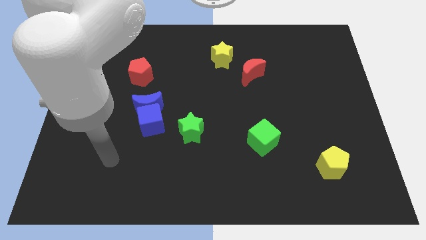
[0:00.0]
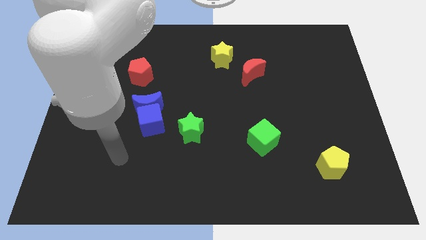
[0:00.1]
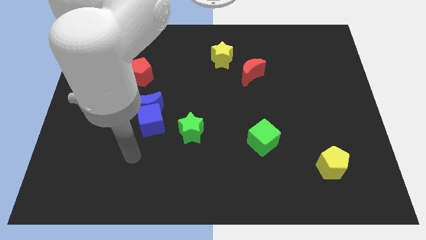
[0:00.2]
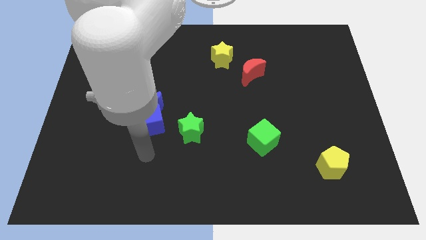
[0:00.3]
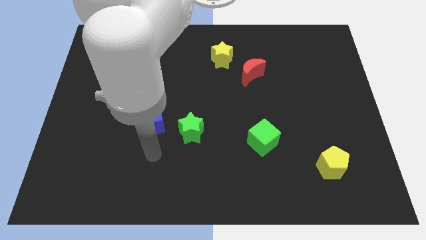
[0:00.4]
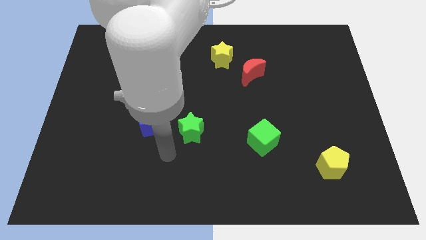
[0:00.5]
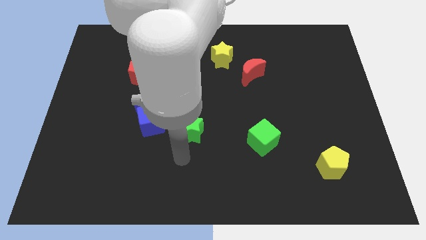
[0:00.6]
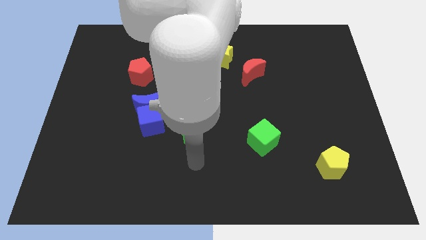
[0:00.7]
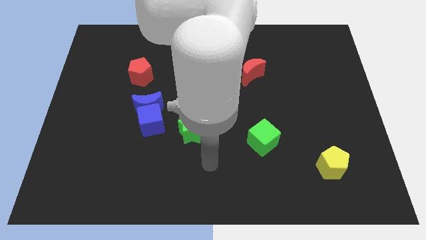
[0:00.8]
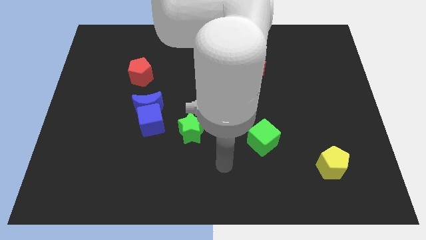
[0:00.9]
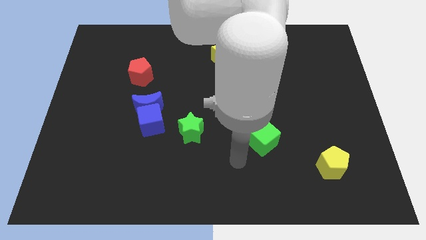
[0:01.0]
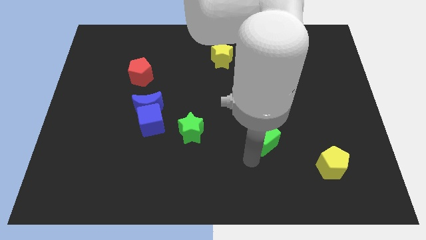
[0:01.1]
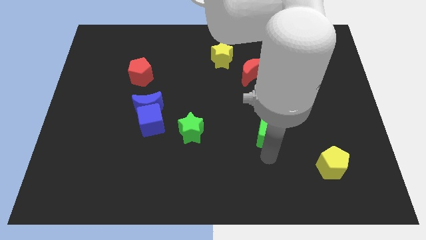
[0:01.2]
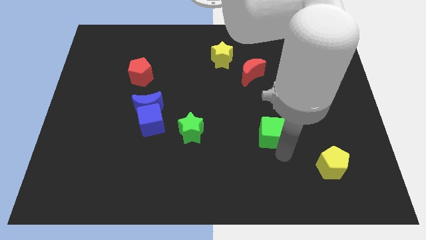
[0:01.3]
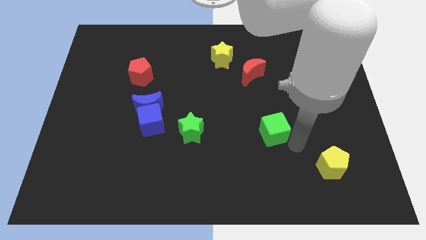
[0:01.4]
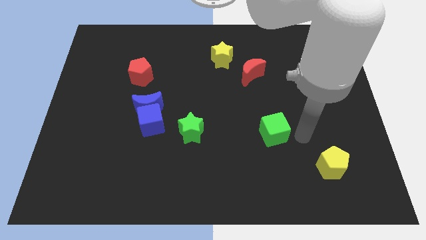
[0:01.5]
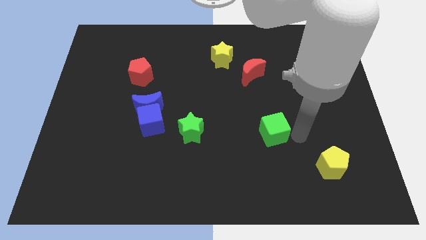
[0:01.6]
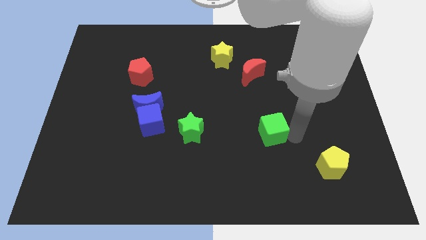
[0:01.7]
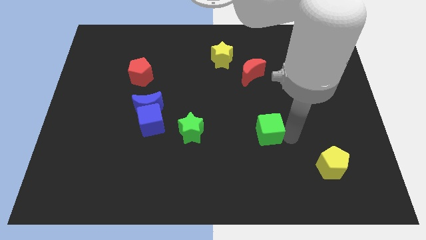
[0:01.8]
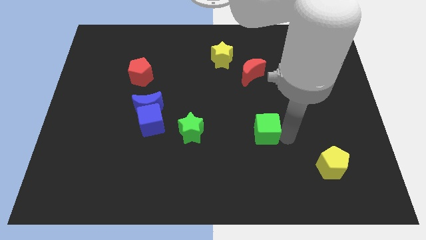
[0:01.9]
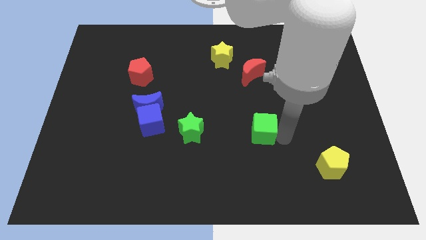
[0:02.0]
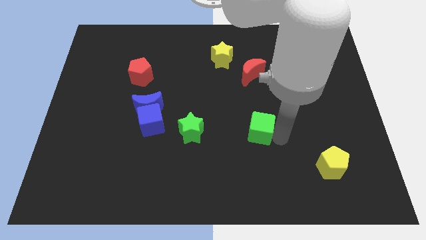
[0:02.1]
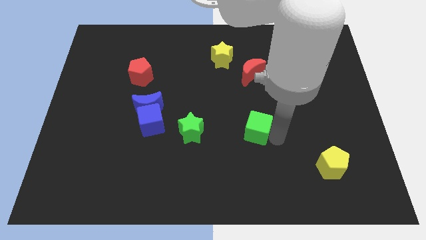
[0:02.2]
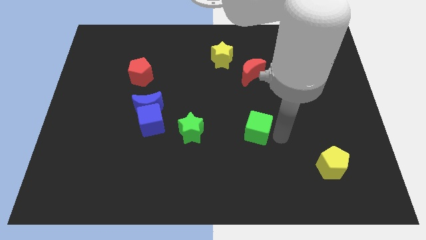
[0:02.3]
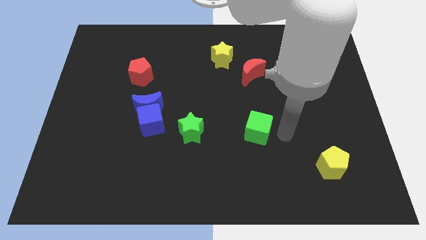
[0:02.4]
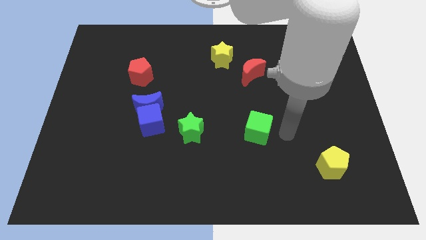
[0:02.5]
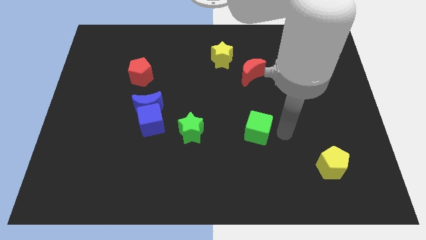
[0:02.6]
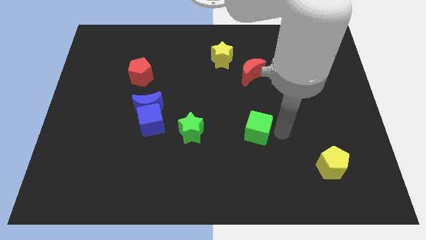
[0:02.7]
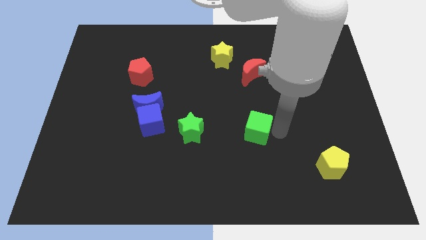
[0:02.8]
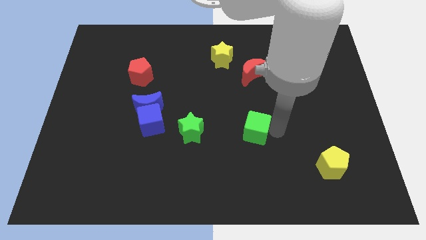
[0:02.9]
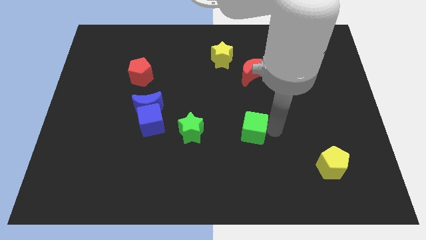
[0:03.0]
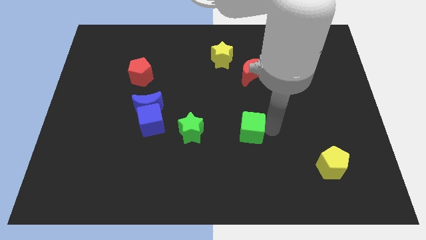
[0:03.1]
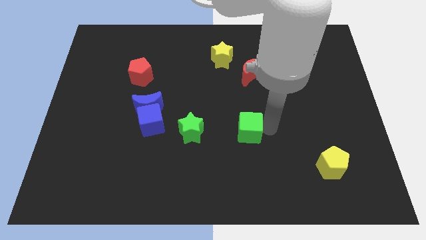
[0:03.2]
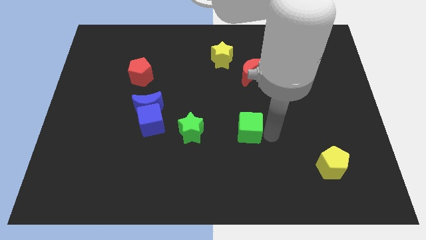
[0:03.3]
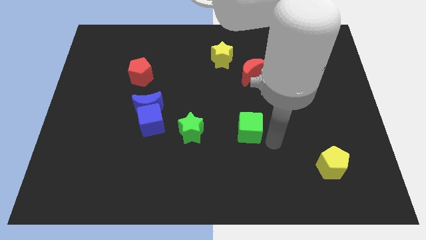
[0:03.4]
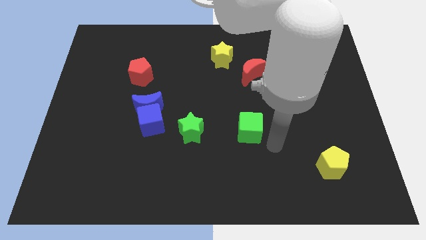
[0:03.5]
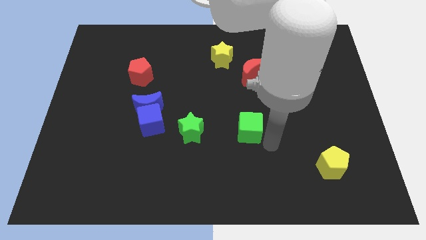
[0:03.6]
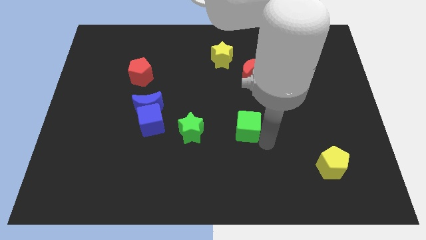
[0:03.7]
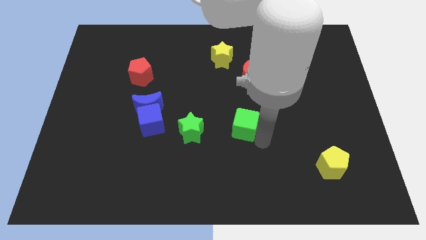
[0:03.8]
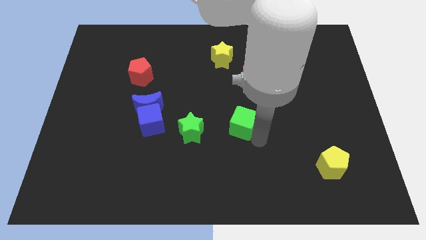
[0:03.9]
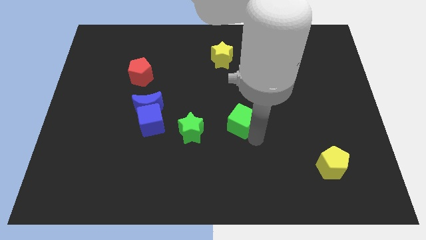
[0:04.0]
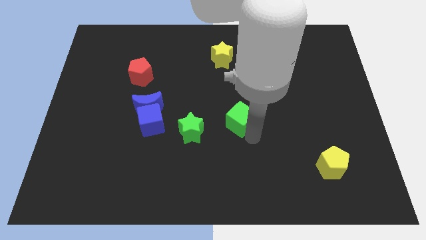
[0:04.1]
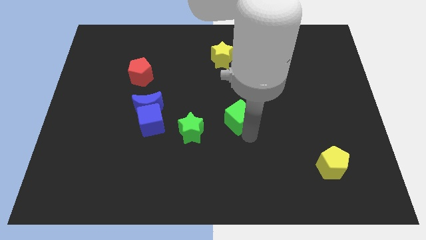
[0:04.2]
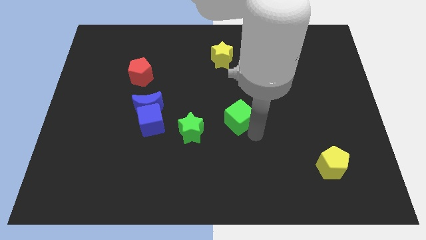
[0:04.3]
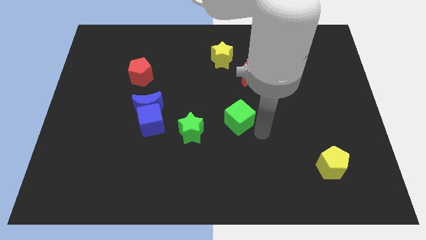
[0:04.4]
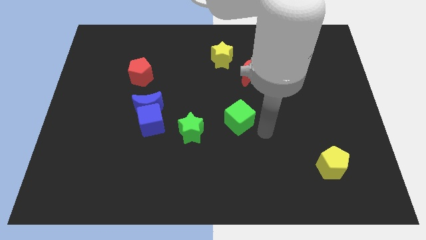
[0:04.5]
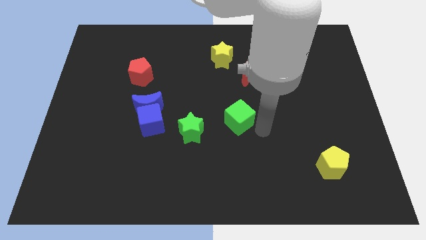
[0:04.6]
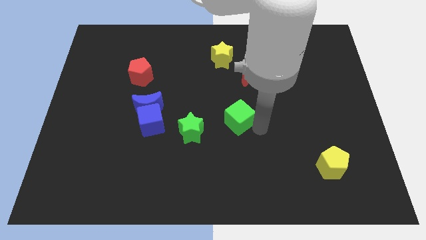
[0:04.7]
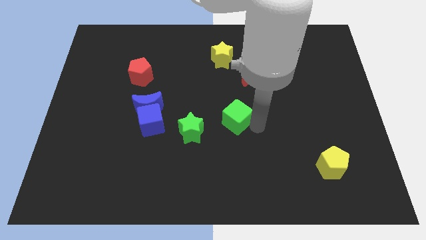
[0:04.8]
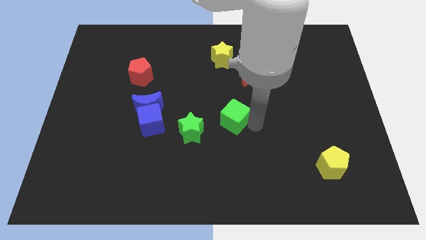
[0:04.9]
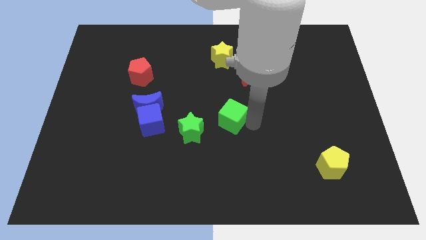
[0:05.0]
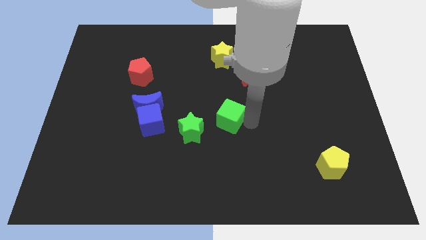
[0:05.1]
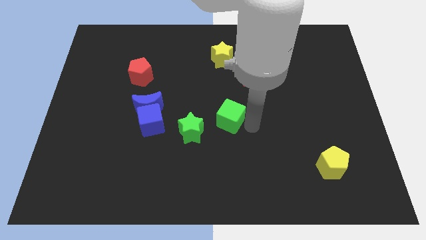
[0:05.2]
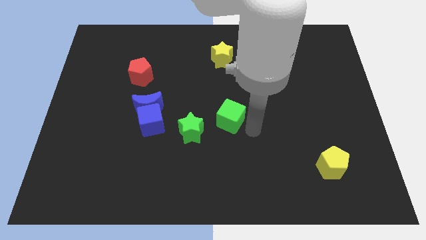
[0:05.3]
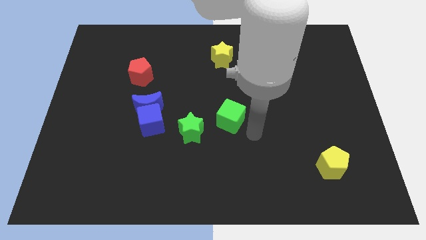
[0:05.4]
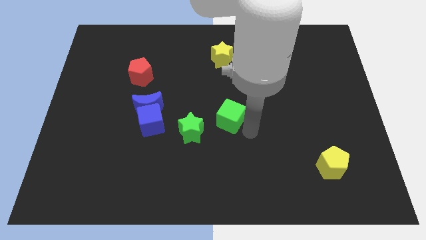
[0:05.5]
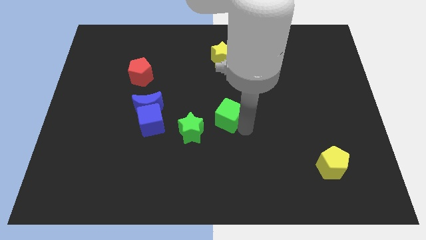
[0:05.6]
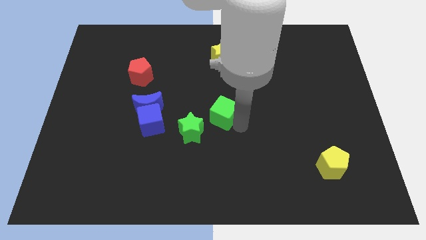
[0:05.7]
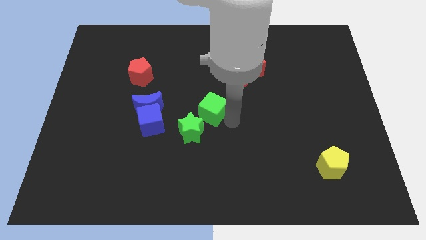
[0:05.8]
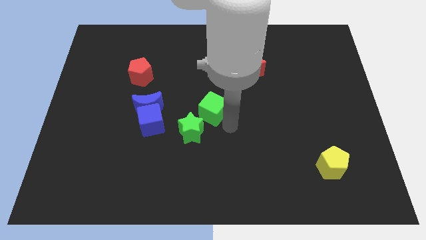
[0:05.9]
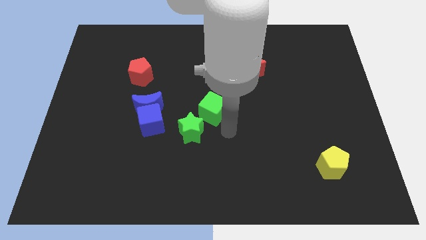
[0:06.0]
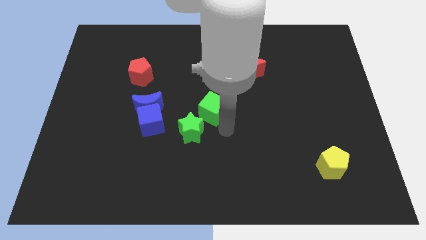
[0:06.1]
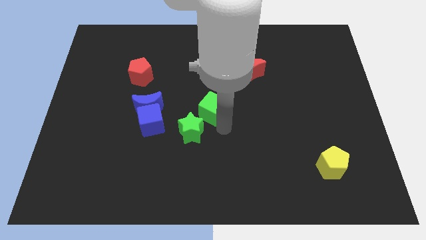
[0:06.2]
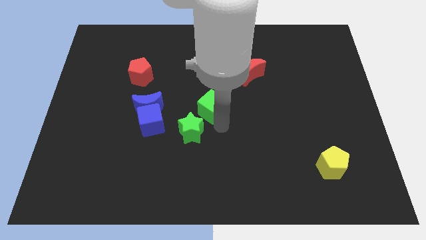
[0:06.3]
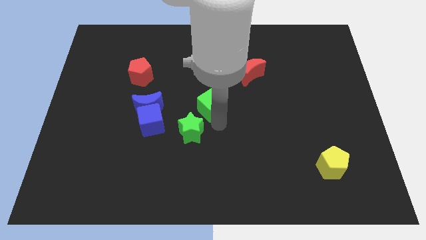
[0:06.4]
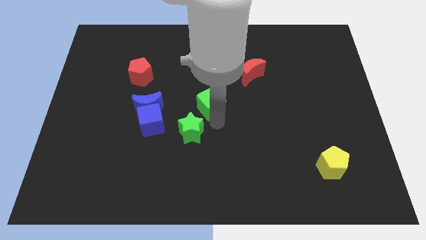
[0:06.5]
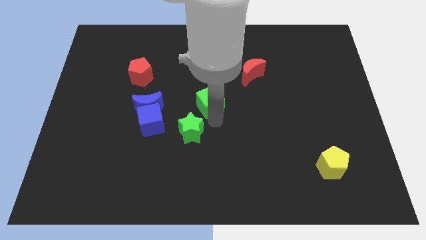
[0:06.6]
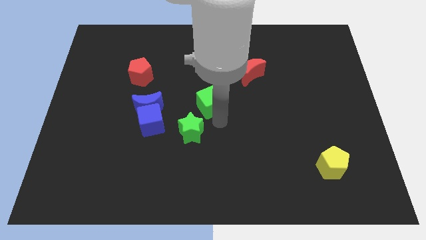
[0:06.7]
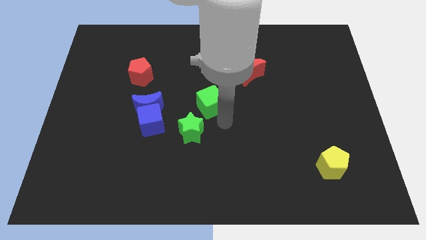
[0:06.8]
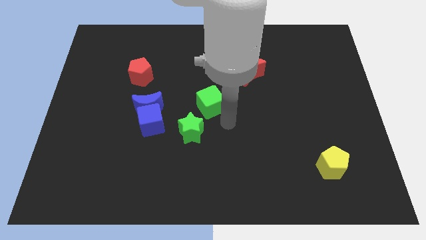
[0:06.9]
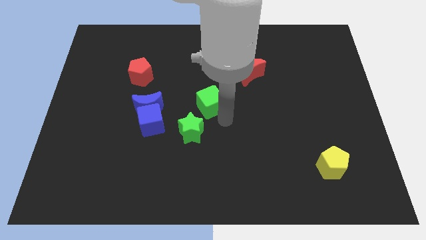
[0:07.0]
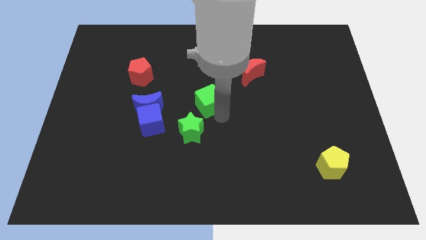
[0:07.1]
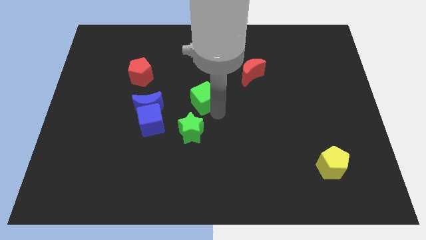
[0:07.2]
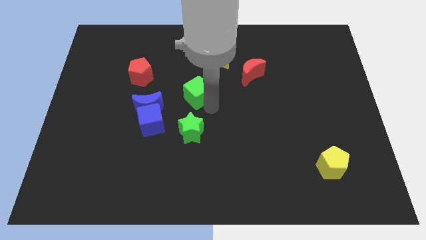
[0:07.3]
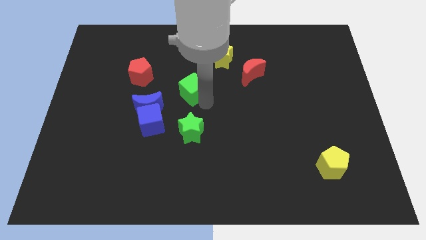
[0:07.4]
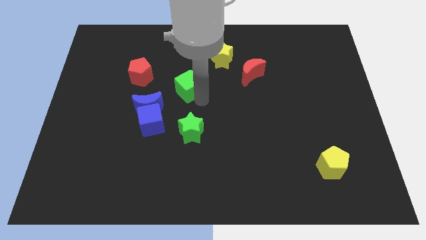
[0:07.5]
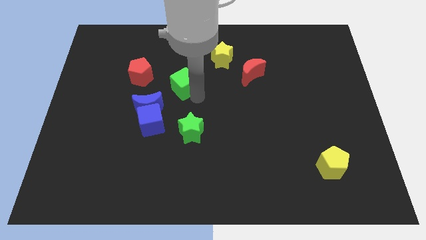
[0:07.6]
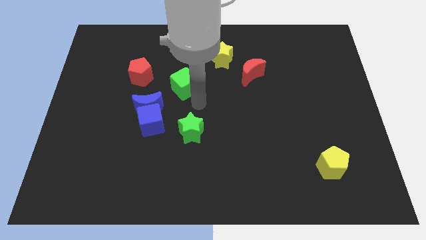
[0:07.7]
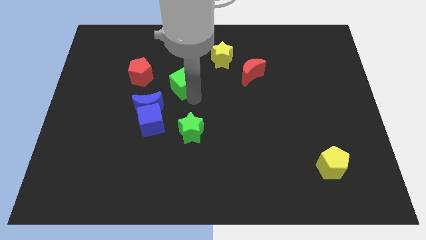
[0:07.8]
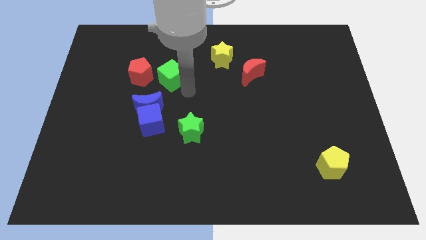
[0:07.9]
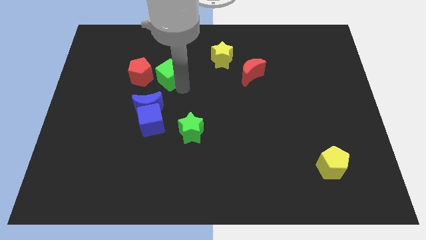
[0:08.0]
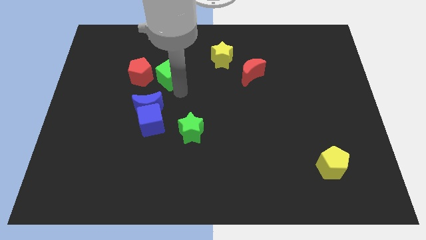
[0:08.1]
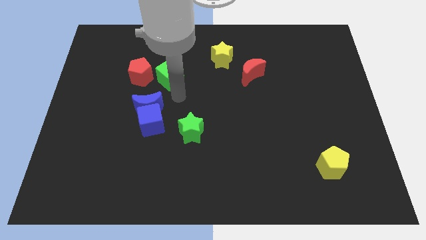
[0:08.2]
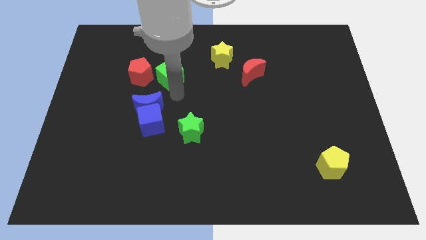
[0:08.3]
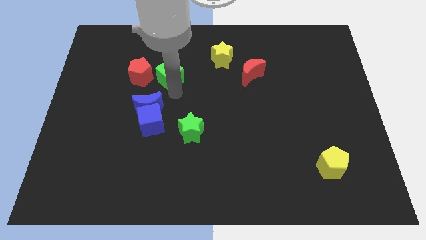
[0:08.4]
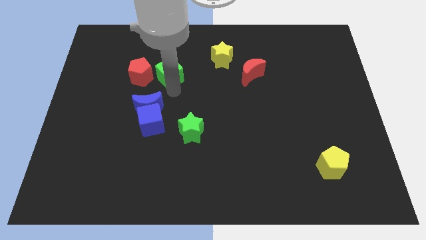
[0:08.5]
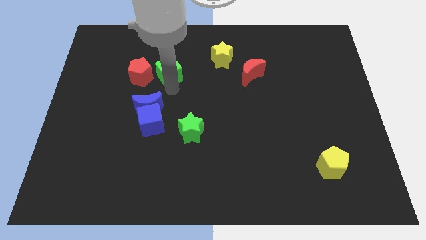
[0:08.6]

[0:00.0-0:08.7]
push the green cube to the top right of the red pentagon
